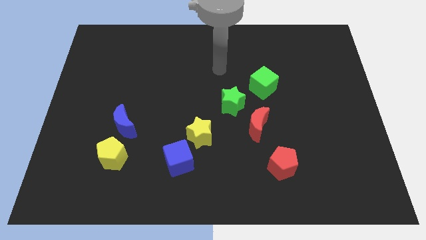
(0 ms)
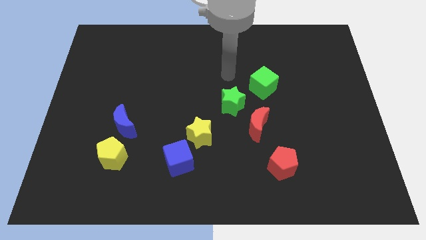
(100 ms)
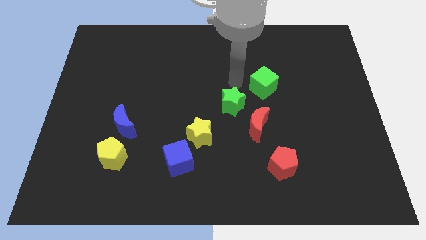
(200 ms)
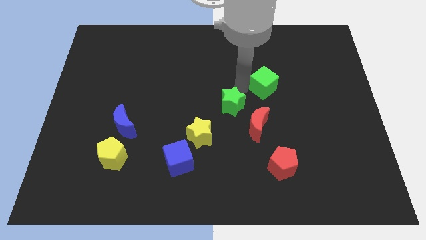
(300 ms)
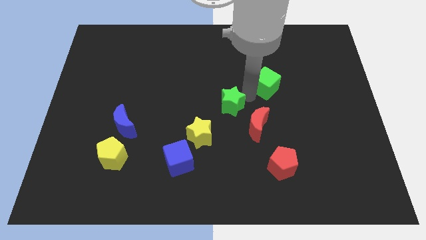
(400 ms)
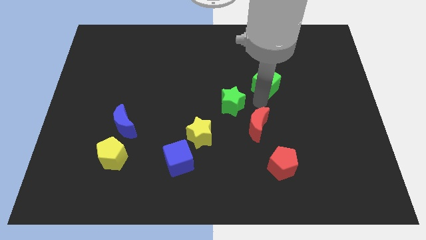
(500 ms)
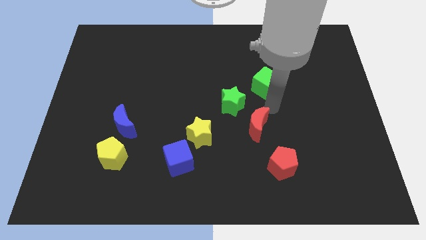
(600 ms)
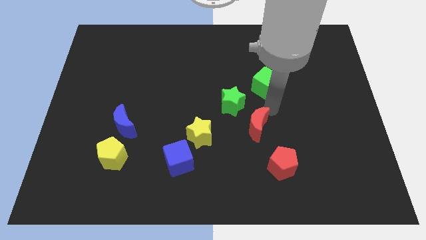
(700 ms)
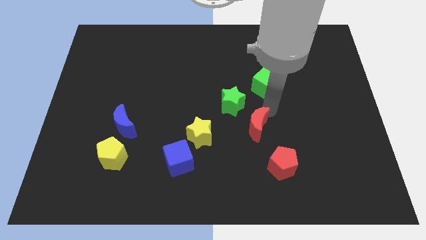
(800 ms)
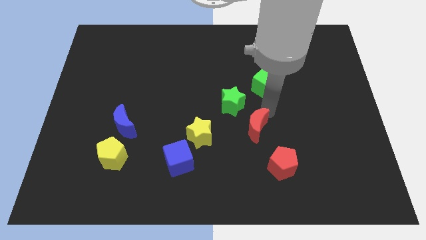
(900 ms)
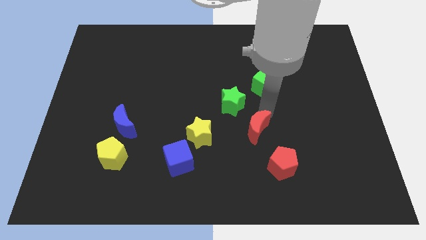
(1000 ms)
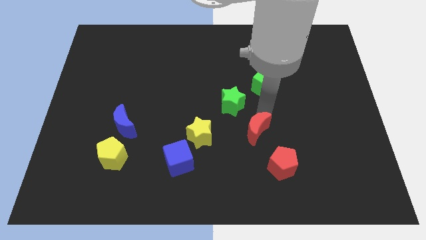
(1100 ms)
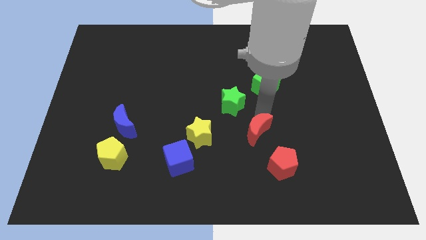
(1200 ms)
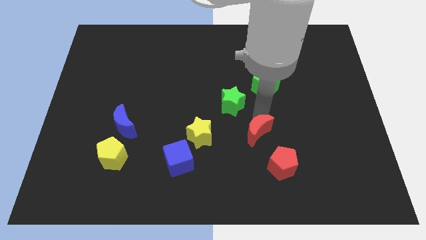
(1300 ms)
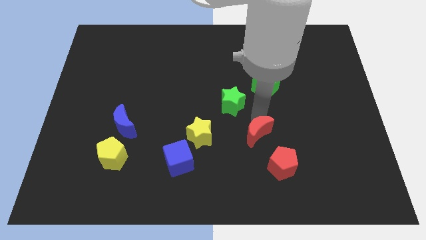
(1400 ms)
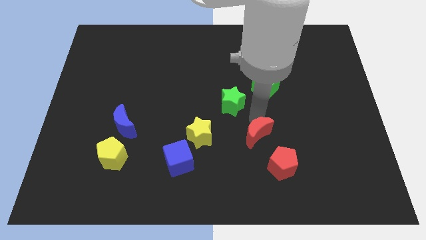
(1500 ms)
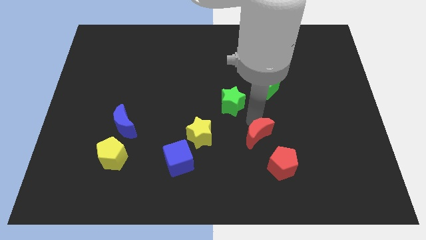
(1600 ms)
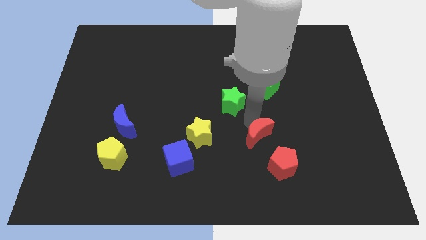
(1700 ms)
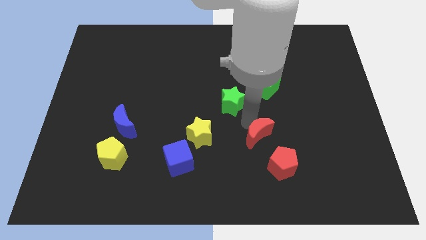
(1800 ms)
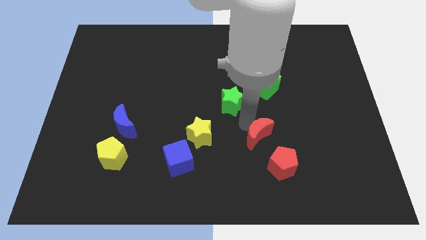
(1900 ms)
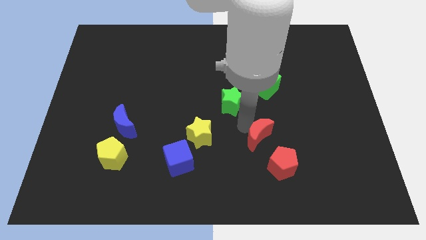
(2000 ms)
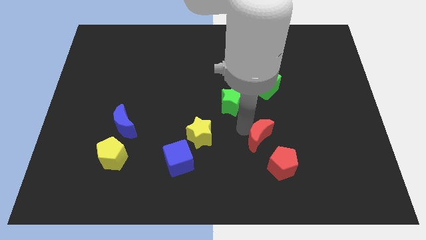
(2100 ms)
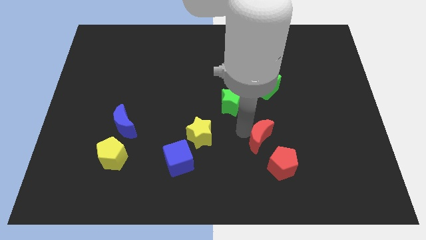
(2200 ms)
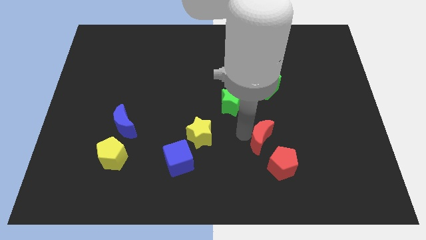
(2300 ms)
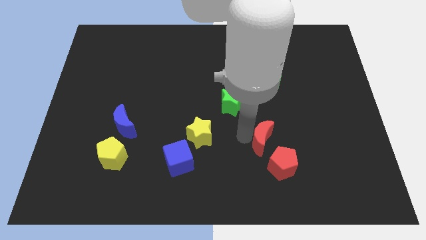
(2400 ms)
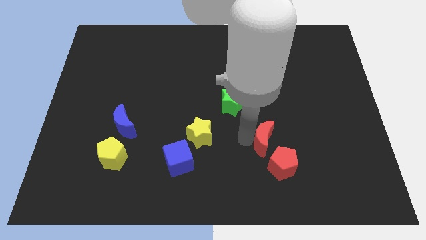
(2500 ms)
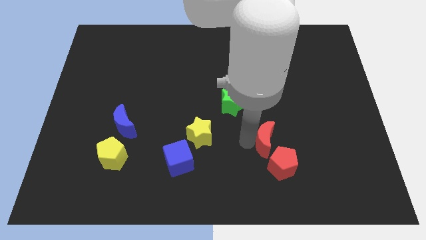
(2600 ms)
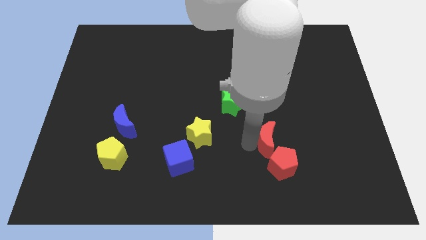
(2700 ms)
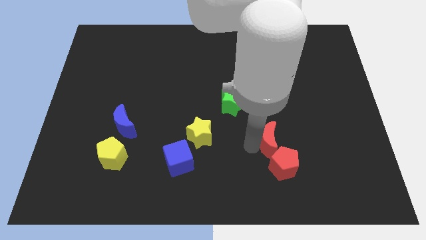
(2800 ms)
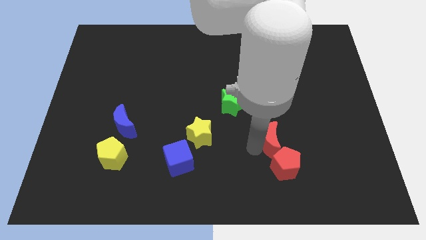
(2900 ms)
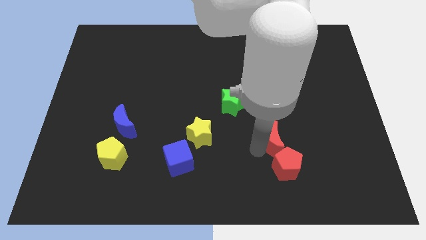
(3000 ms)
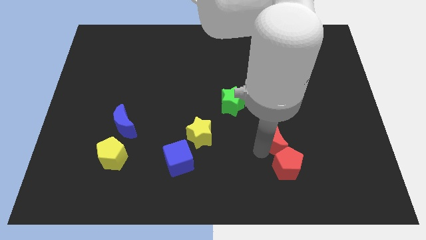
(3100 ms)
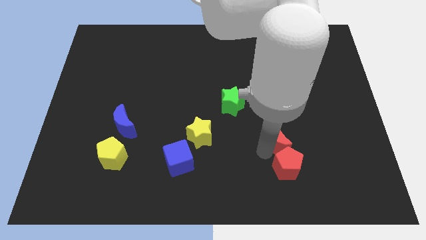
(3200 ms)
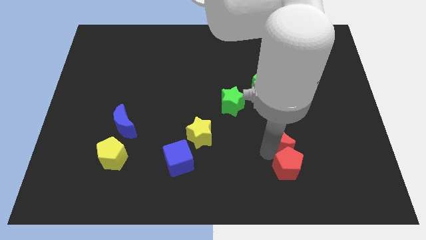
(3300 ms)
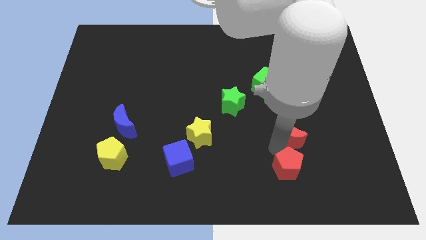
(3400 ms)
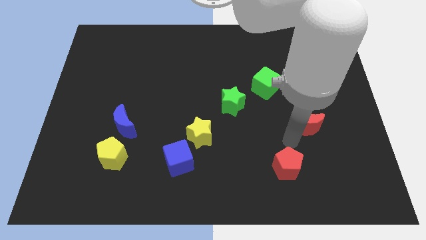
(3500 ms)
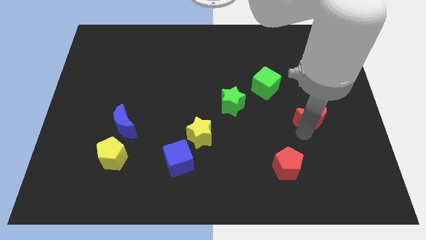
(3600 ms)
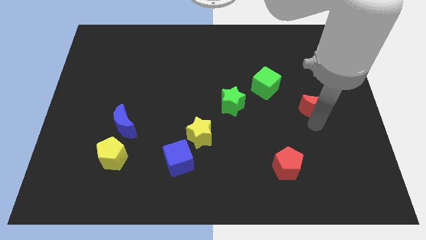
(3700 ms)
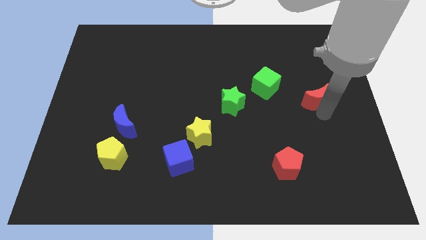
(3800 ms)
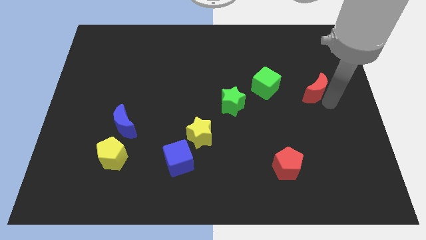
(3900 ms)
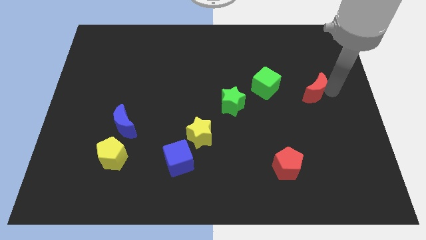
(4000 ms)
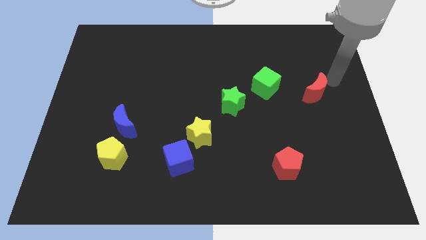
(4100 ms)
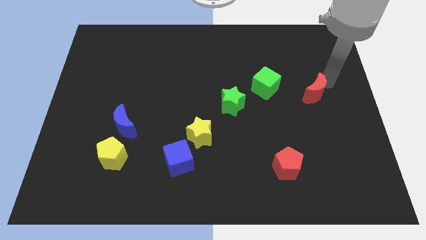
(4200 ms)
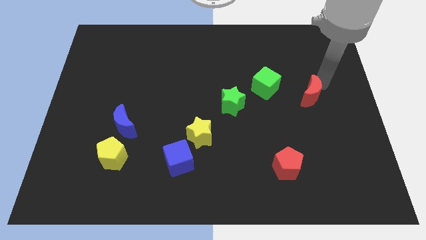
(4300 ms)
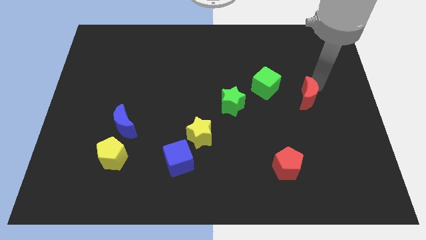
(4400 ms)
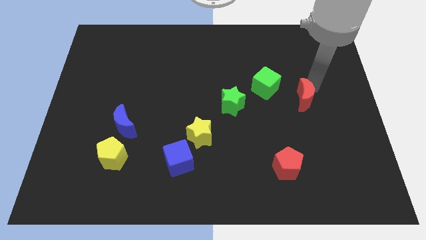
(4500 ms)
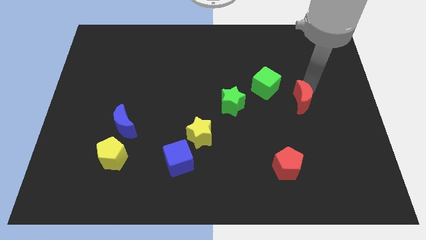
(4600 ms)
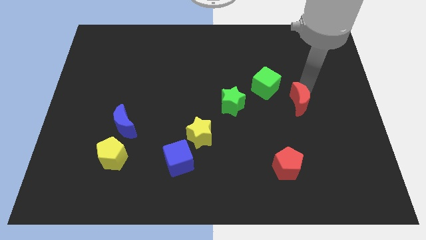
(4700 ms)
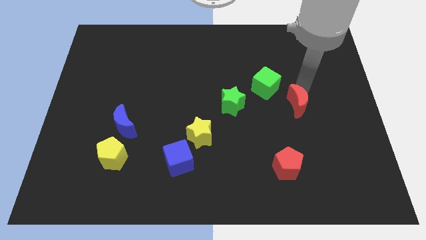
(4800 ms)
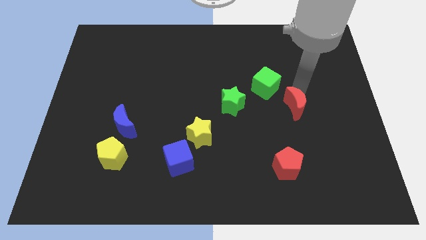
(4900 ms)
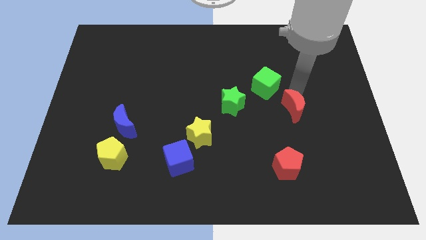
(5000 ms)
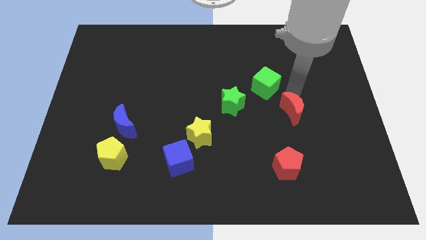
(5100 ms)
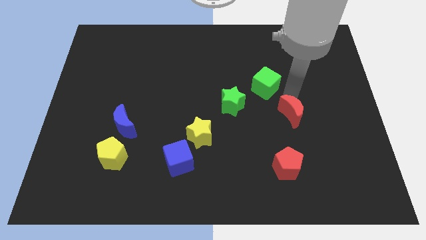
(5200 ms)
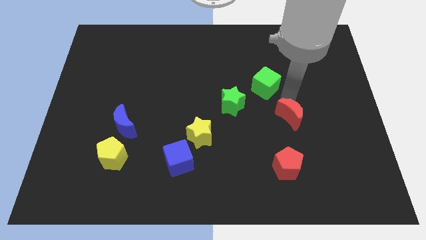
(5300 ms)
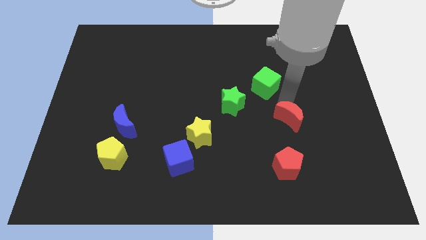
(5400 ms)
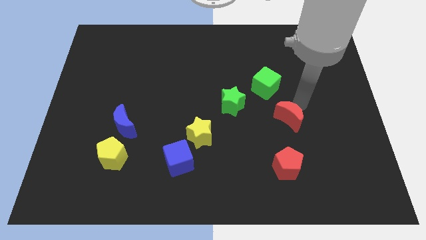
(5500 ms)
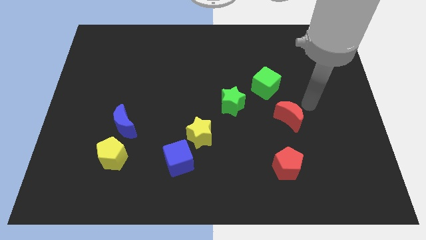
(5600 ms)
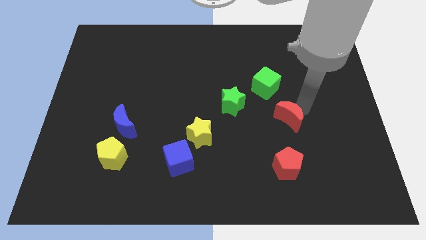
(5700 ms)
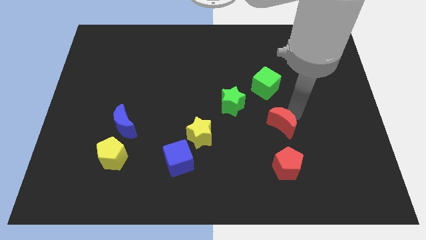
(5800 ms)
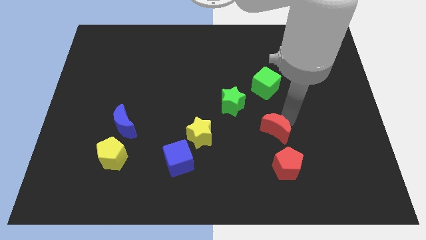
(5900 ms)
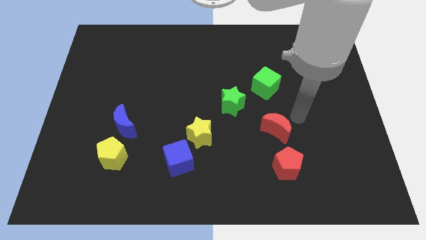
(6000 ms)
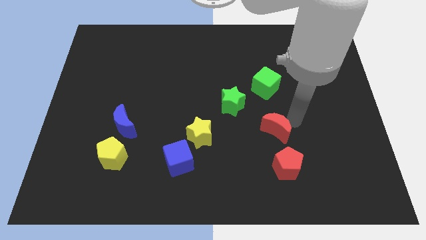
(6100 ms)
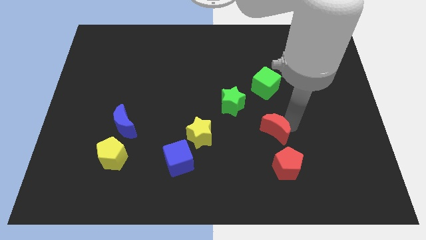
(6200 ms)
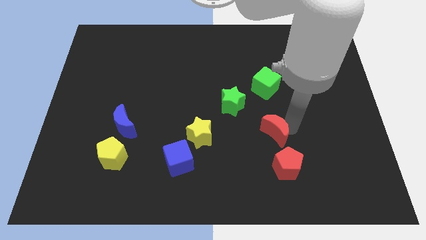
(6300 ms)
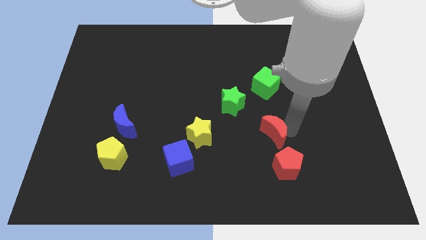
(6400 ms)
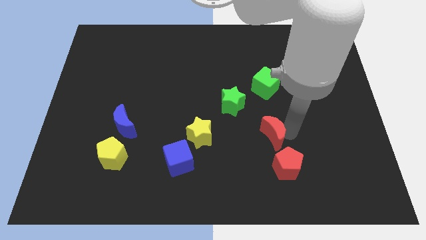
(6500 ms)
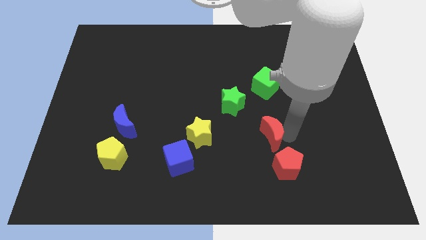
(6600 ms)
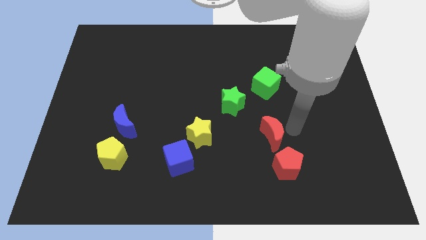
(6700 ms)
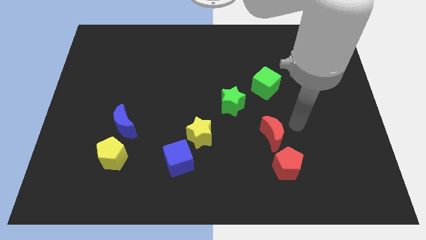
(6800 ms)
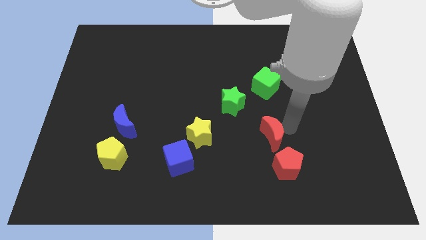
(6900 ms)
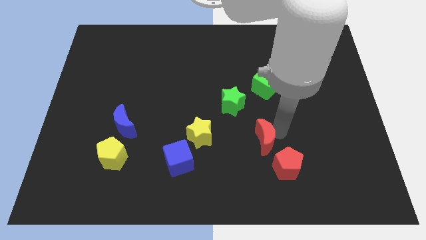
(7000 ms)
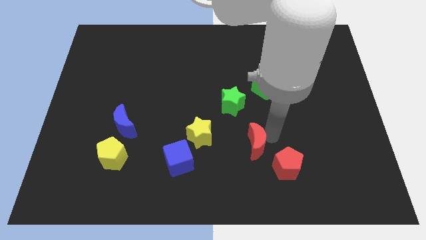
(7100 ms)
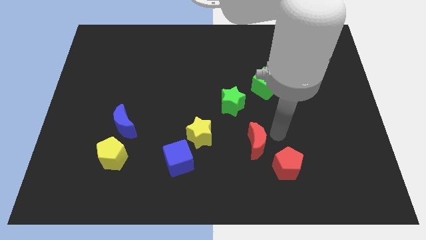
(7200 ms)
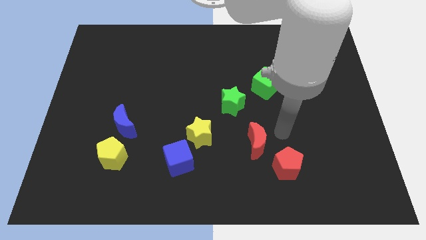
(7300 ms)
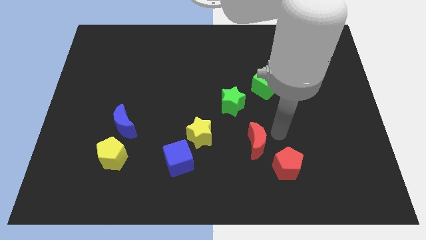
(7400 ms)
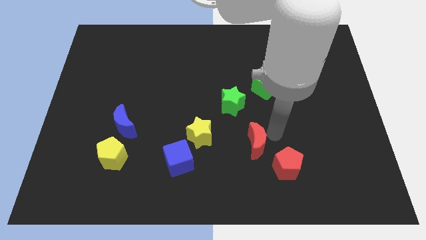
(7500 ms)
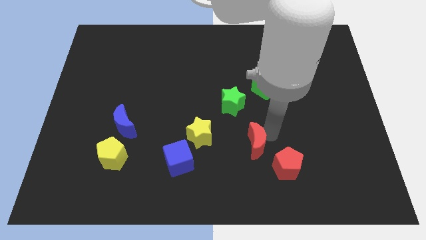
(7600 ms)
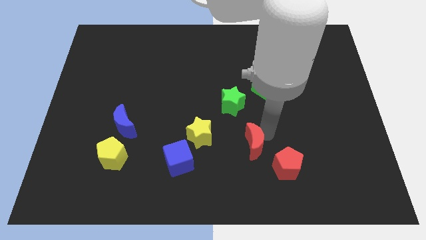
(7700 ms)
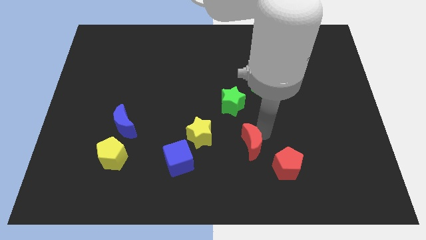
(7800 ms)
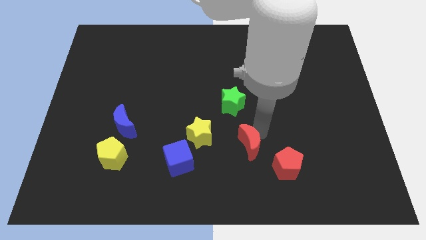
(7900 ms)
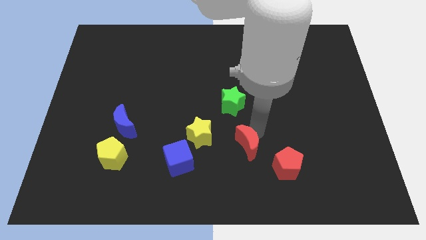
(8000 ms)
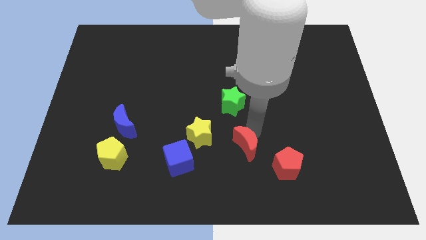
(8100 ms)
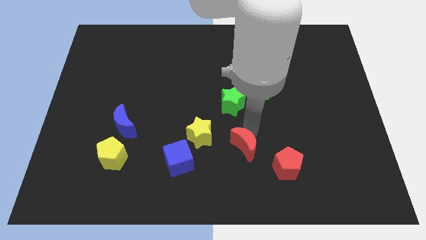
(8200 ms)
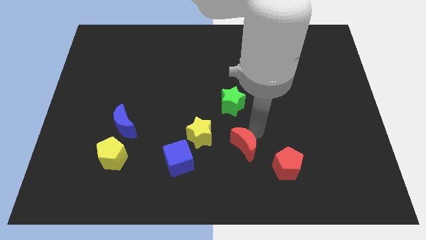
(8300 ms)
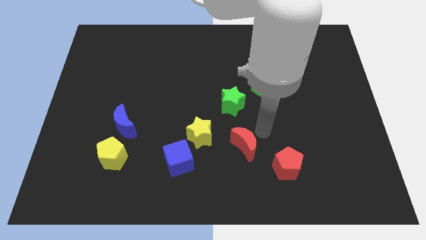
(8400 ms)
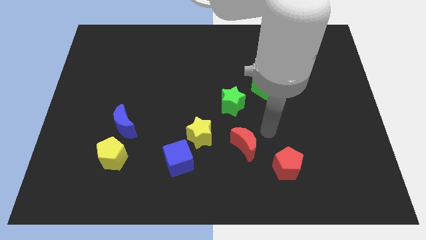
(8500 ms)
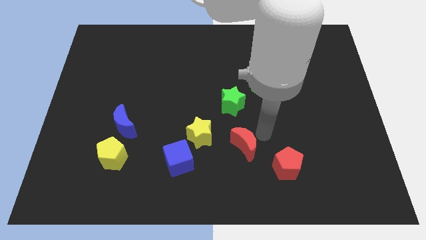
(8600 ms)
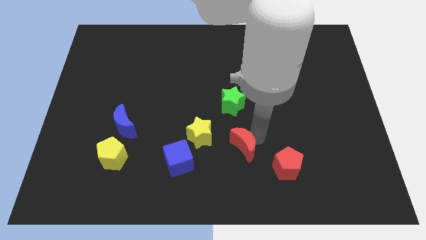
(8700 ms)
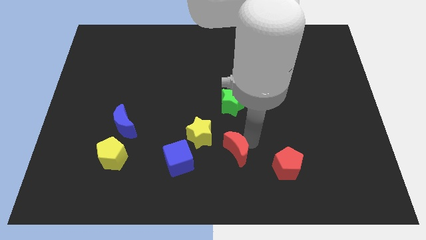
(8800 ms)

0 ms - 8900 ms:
move the red moon diagonally down and to the right of the yellow star
